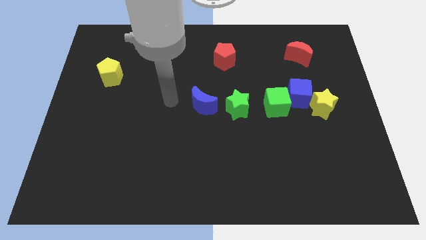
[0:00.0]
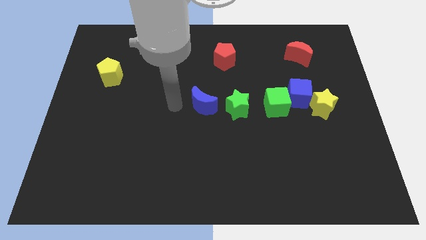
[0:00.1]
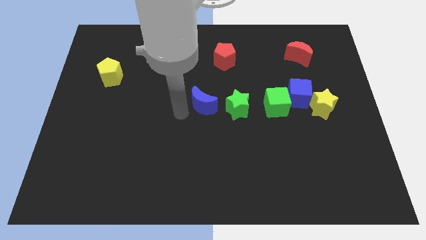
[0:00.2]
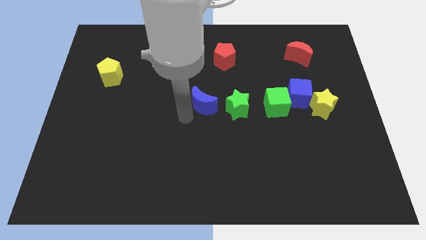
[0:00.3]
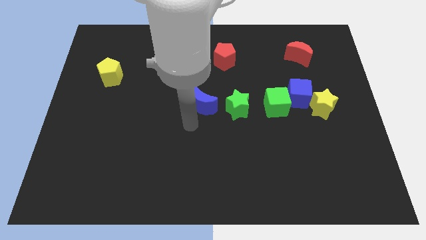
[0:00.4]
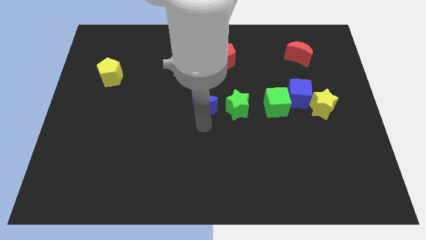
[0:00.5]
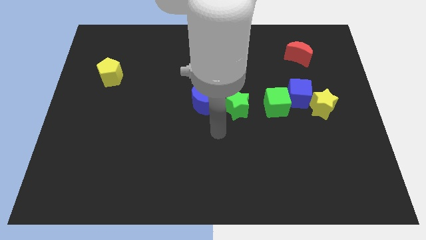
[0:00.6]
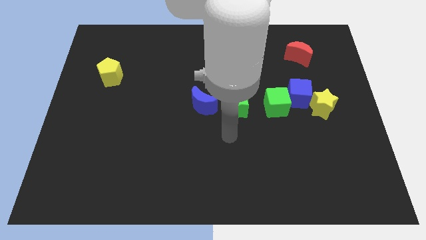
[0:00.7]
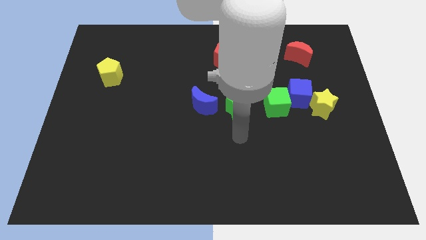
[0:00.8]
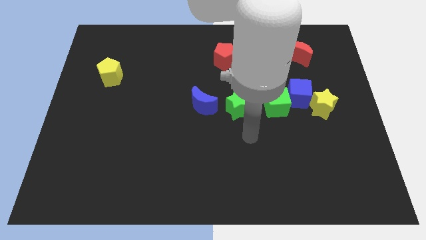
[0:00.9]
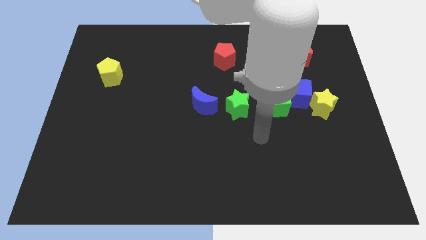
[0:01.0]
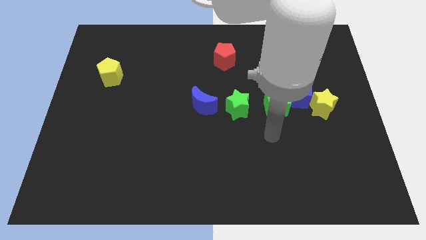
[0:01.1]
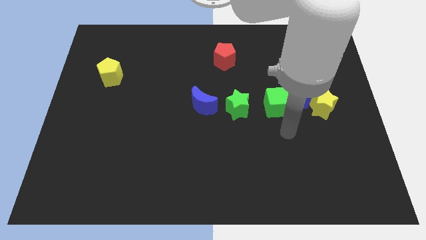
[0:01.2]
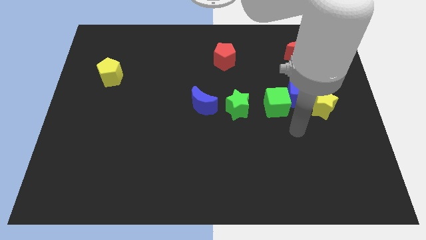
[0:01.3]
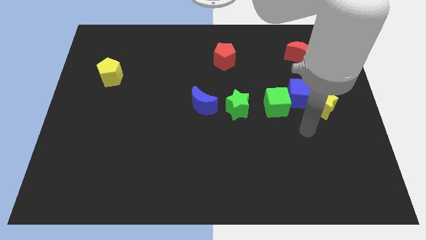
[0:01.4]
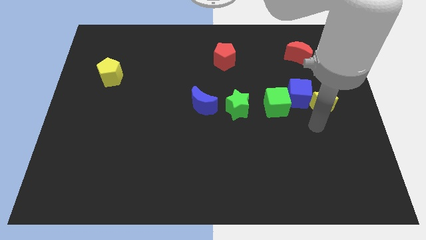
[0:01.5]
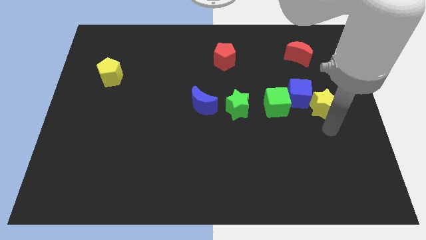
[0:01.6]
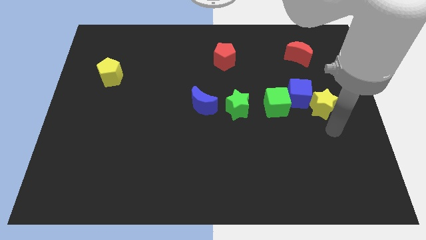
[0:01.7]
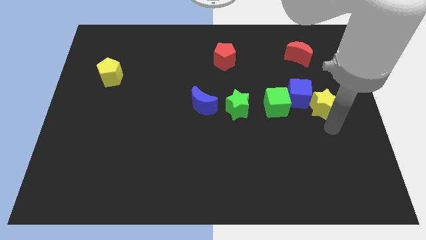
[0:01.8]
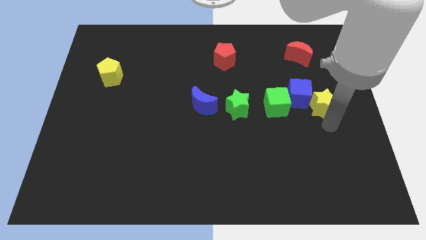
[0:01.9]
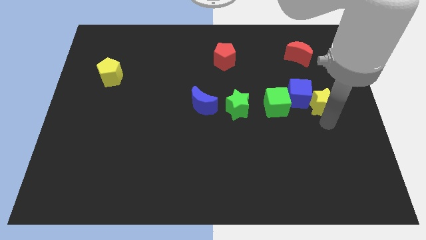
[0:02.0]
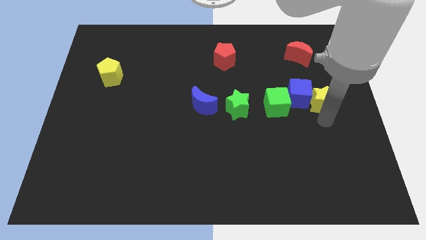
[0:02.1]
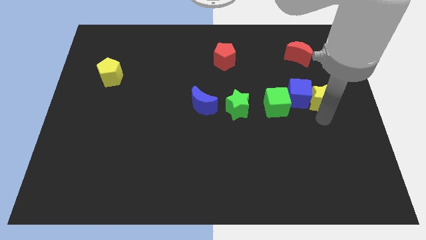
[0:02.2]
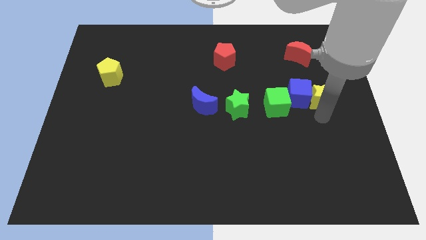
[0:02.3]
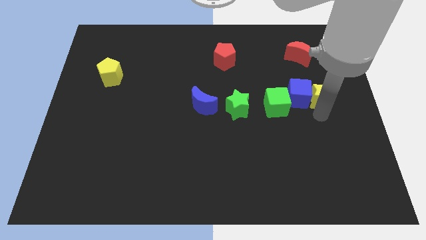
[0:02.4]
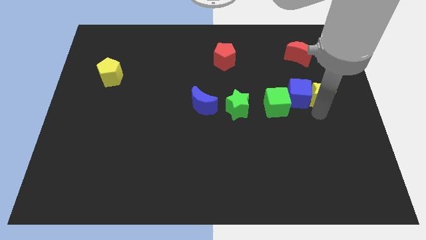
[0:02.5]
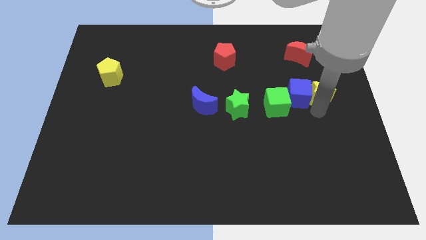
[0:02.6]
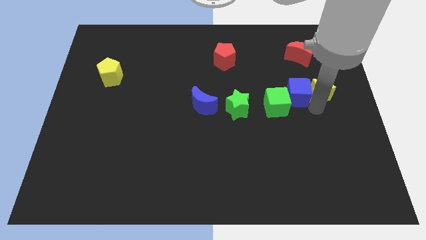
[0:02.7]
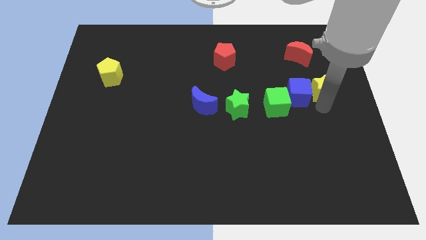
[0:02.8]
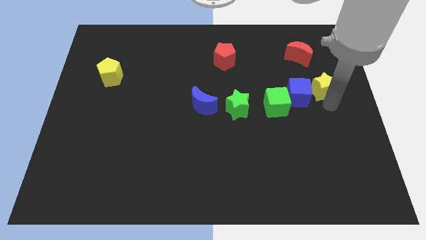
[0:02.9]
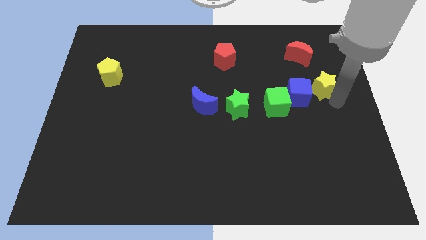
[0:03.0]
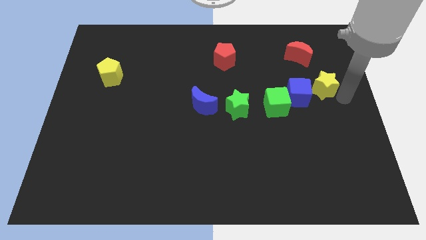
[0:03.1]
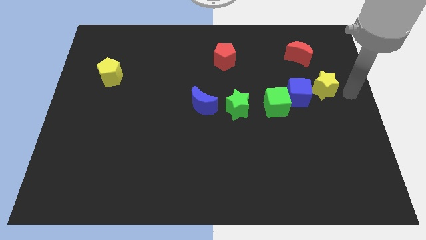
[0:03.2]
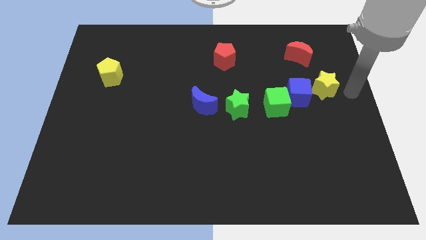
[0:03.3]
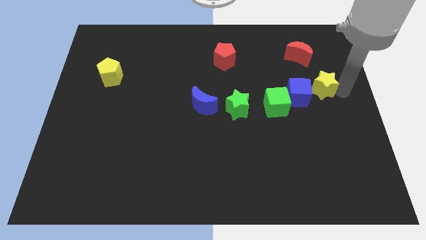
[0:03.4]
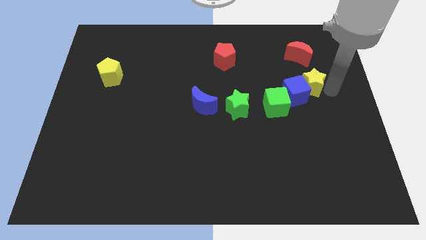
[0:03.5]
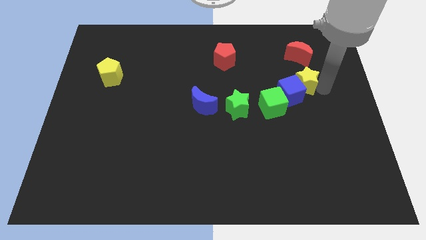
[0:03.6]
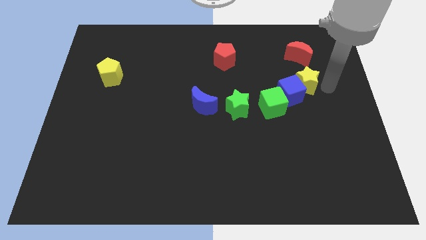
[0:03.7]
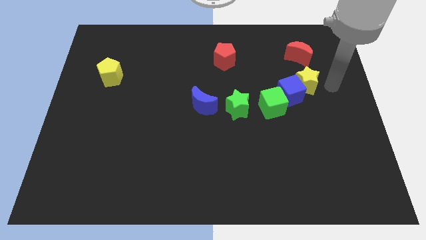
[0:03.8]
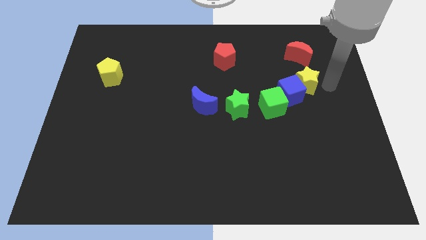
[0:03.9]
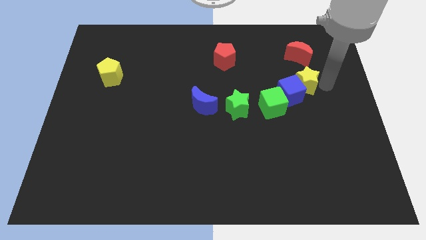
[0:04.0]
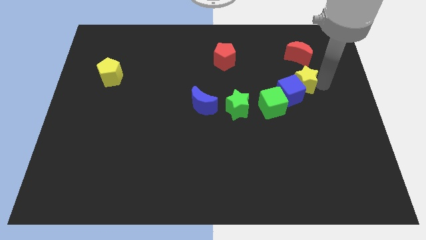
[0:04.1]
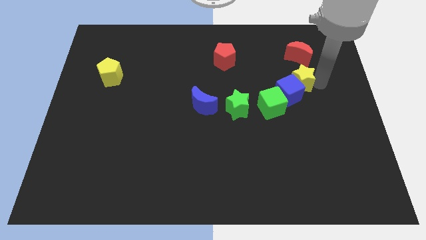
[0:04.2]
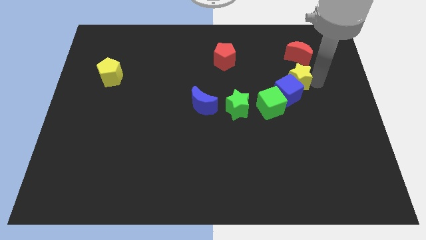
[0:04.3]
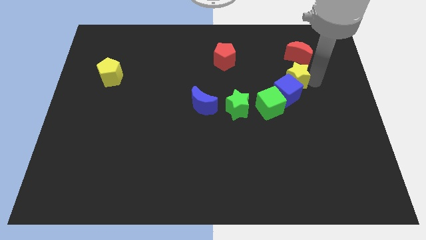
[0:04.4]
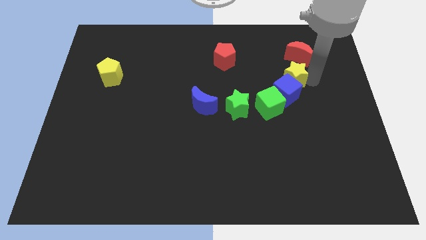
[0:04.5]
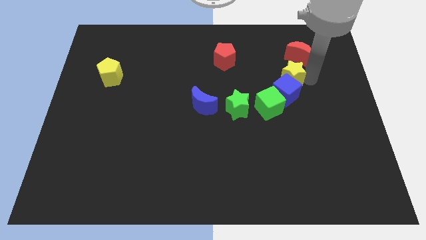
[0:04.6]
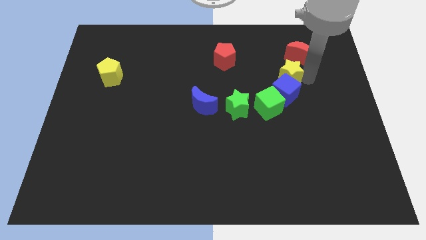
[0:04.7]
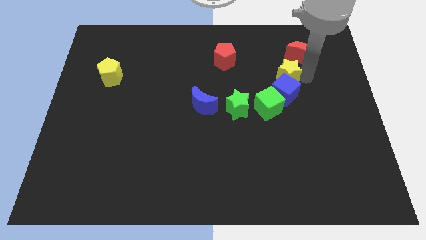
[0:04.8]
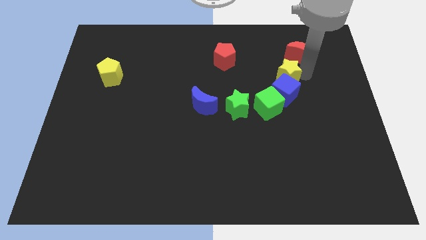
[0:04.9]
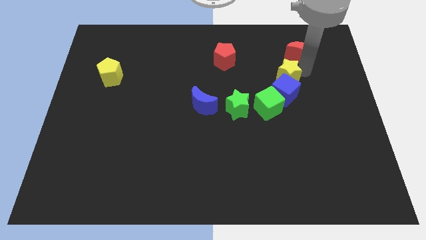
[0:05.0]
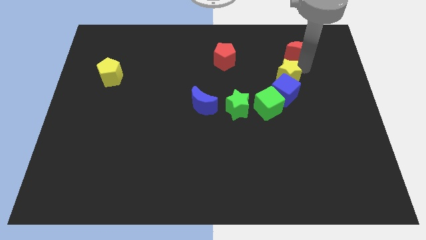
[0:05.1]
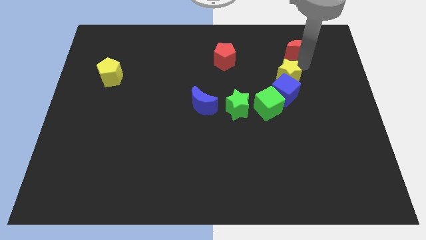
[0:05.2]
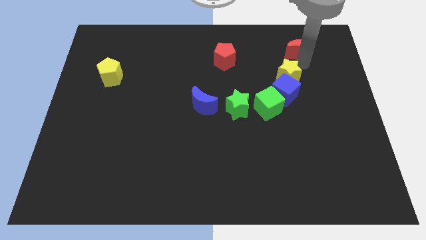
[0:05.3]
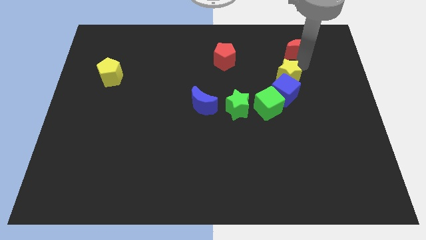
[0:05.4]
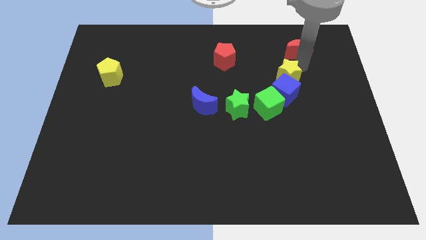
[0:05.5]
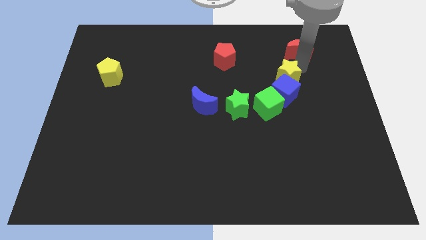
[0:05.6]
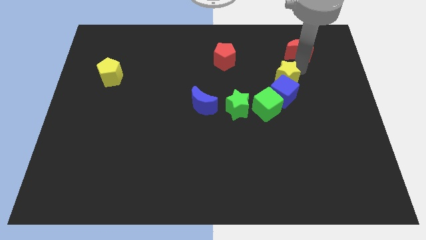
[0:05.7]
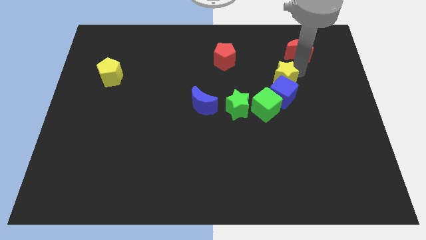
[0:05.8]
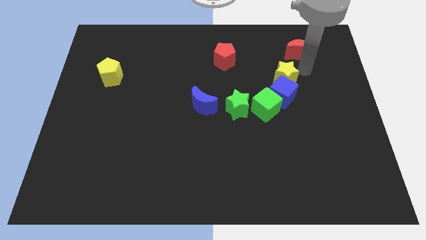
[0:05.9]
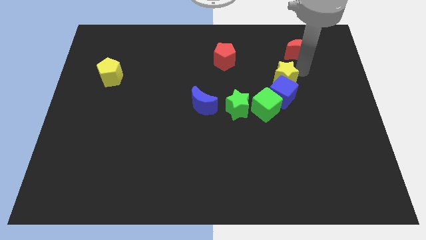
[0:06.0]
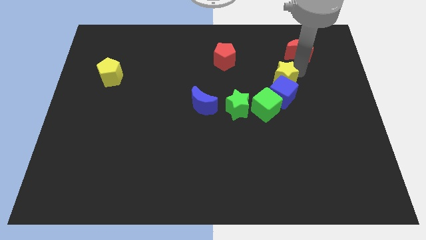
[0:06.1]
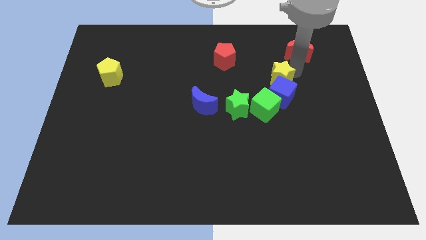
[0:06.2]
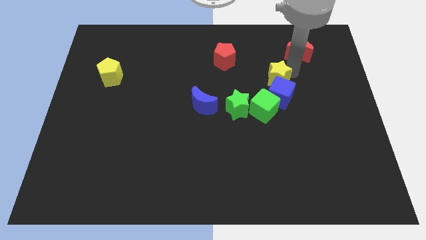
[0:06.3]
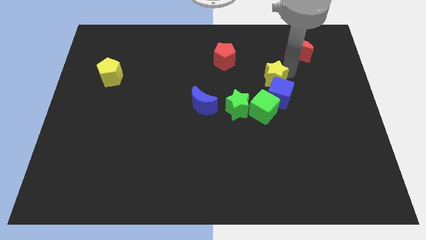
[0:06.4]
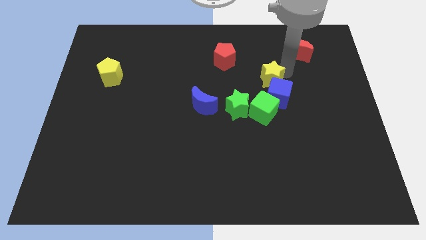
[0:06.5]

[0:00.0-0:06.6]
put the yellow star to the top right of the green star

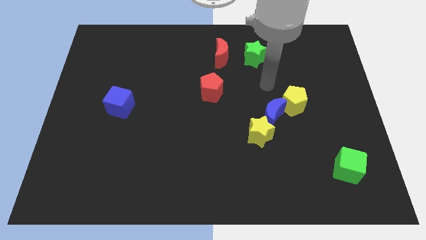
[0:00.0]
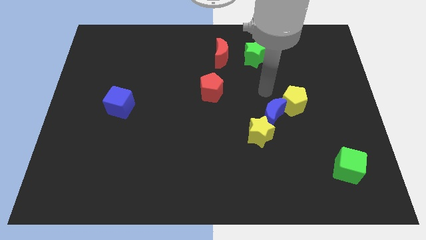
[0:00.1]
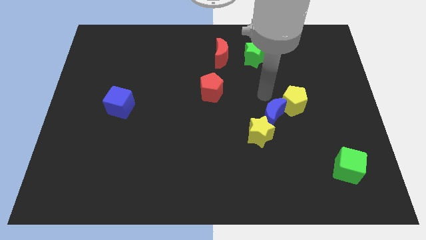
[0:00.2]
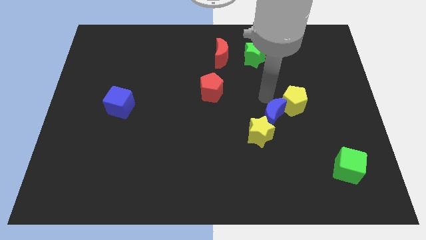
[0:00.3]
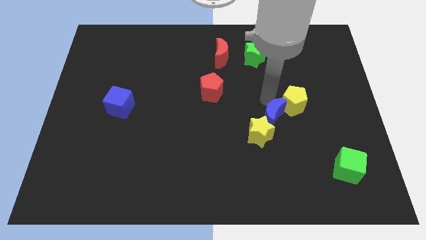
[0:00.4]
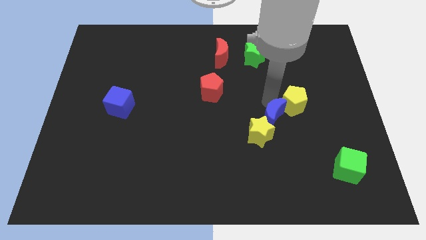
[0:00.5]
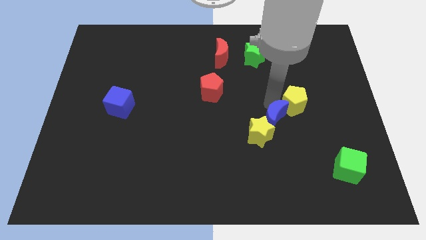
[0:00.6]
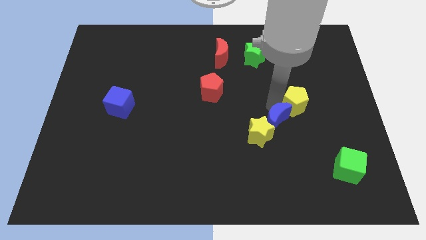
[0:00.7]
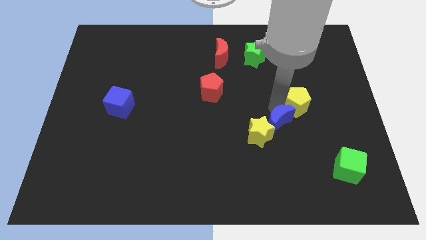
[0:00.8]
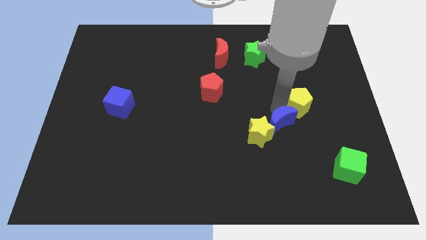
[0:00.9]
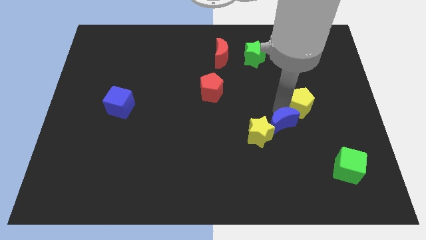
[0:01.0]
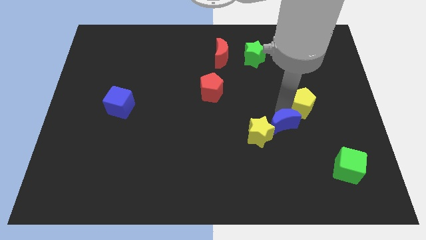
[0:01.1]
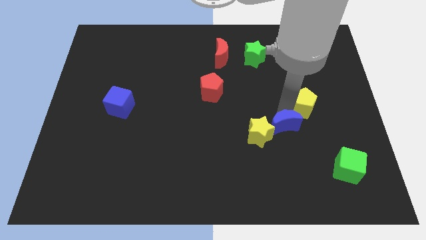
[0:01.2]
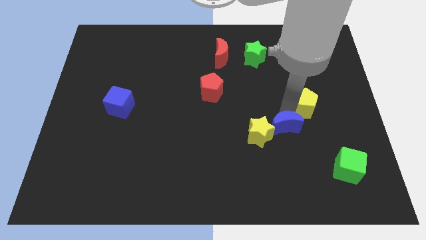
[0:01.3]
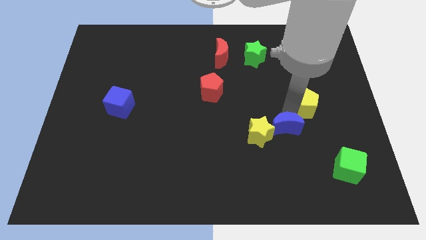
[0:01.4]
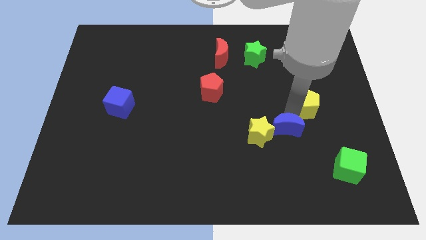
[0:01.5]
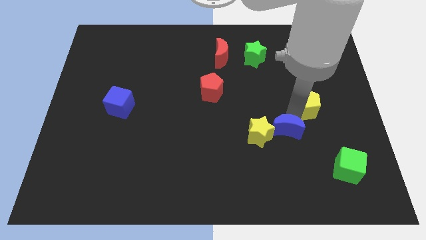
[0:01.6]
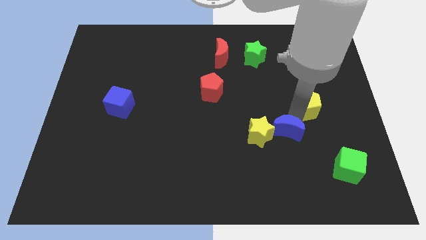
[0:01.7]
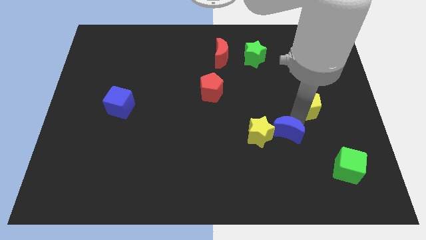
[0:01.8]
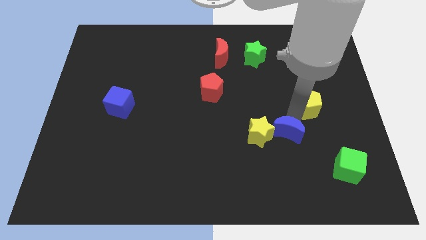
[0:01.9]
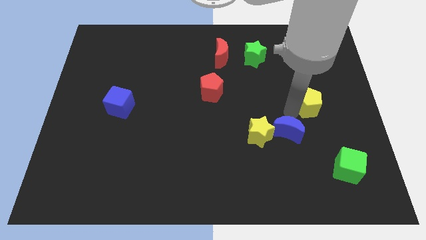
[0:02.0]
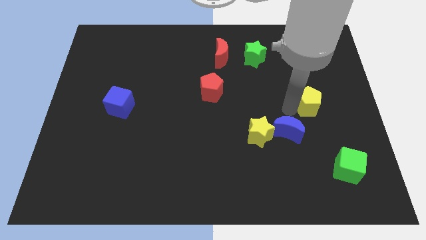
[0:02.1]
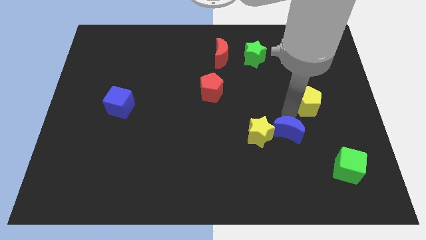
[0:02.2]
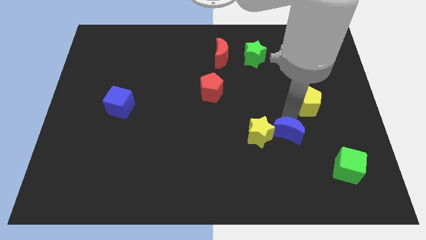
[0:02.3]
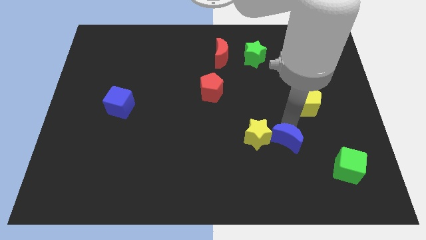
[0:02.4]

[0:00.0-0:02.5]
push the blue moon to the bottom right side of the yellow star
